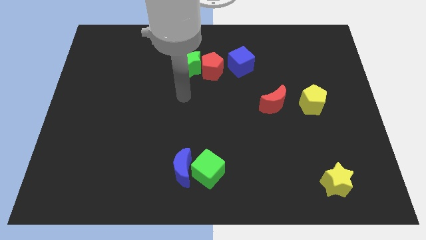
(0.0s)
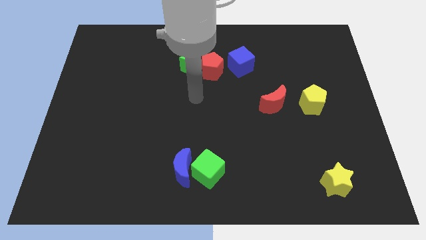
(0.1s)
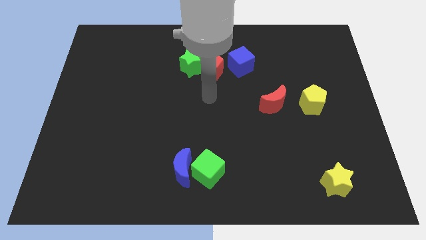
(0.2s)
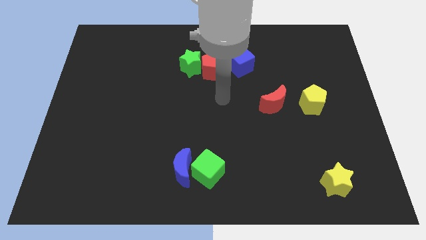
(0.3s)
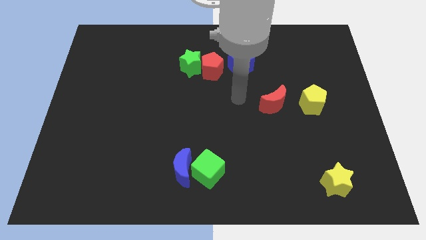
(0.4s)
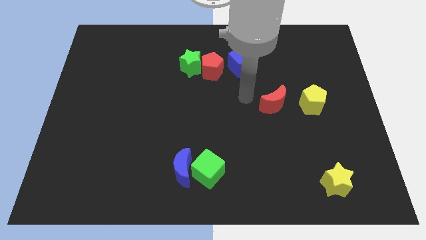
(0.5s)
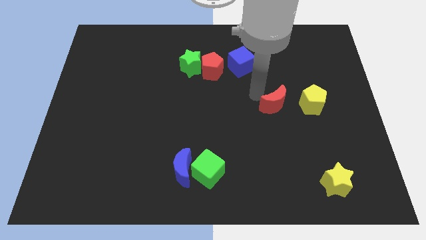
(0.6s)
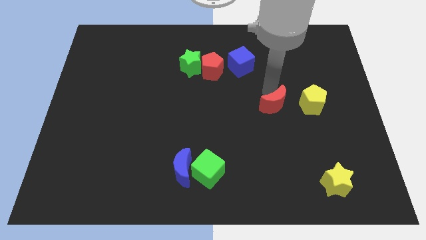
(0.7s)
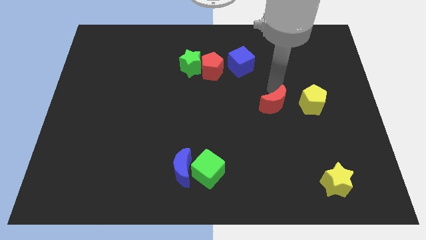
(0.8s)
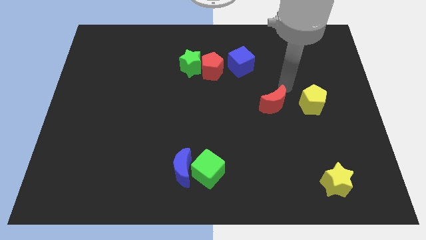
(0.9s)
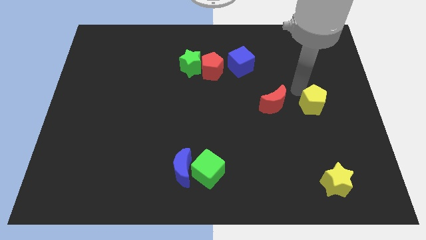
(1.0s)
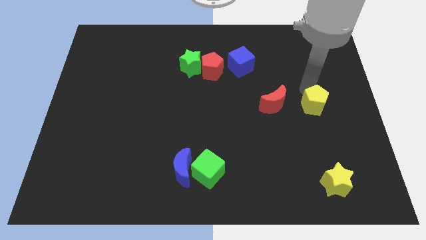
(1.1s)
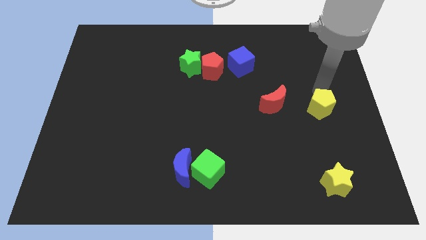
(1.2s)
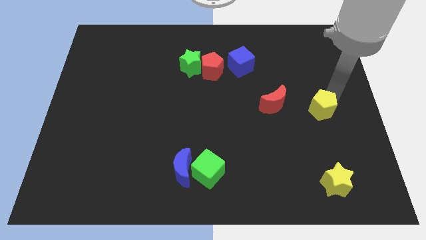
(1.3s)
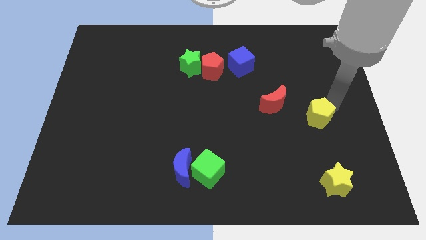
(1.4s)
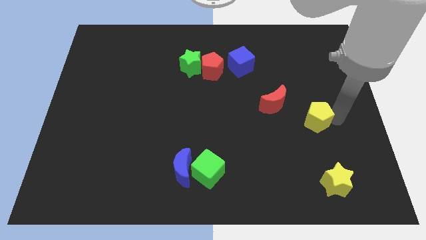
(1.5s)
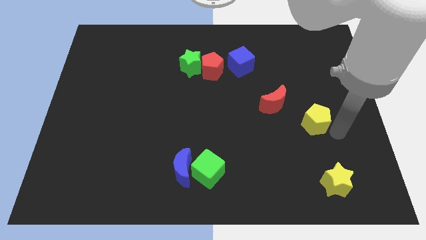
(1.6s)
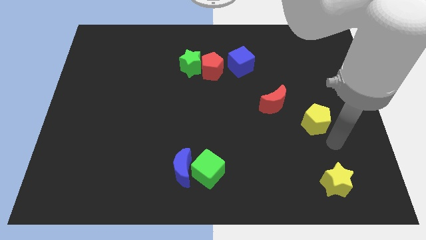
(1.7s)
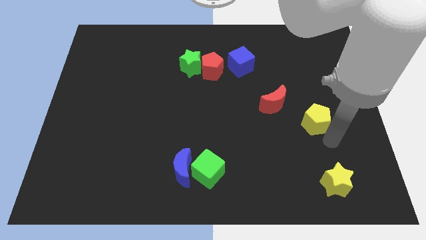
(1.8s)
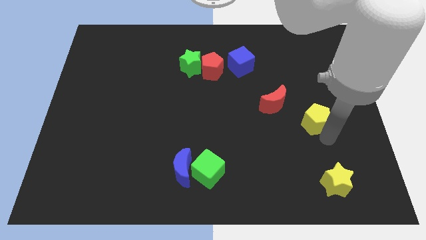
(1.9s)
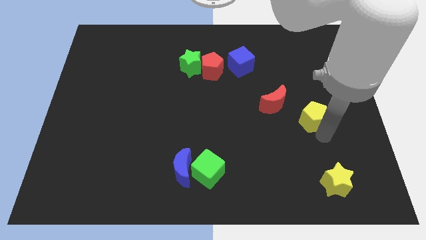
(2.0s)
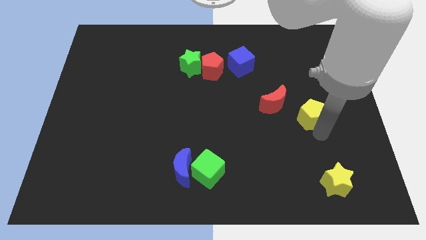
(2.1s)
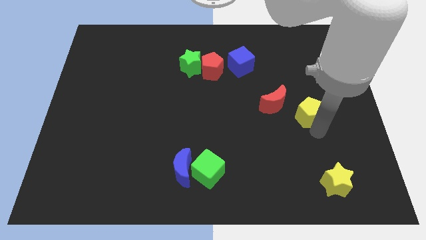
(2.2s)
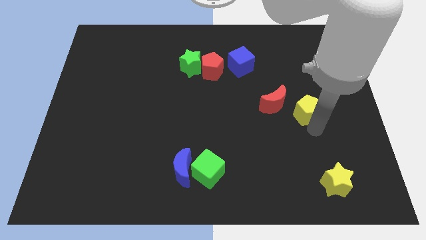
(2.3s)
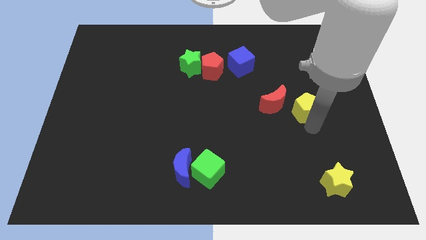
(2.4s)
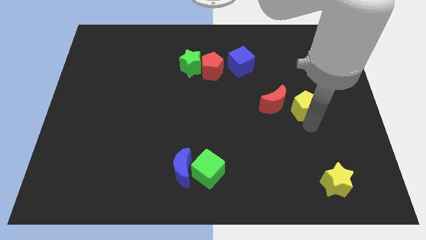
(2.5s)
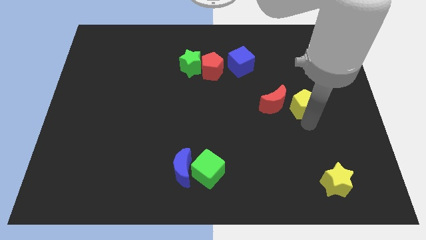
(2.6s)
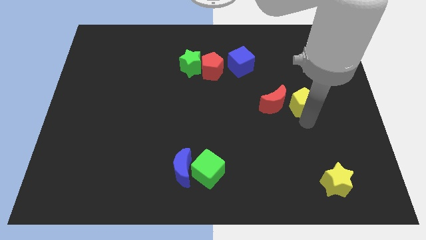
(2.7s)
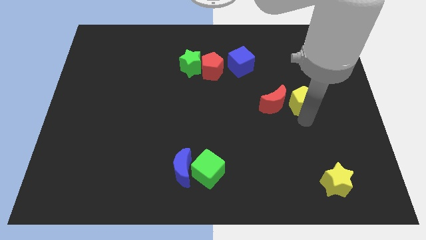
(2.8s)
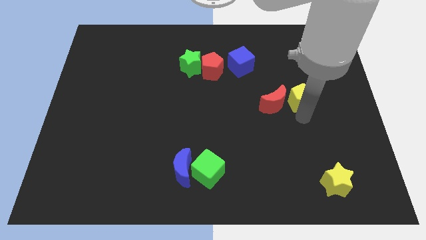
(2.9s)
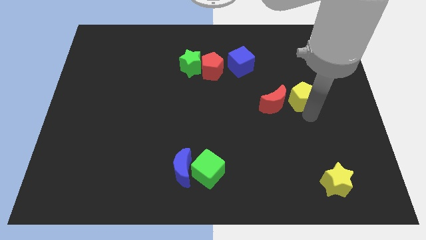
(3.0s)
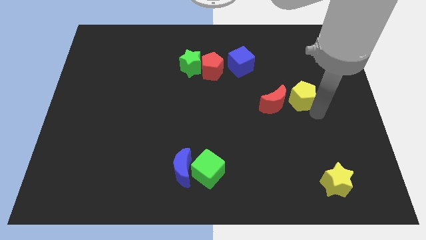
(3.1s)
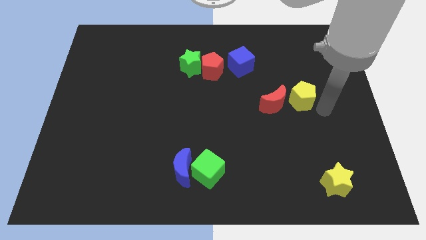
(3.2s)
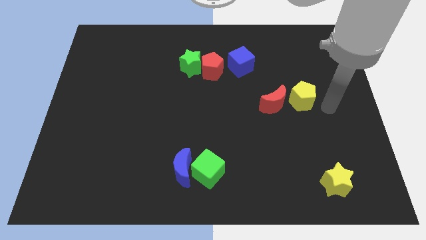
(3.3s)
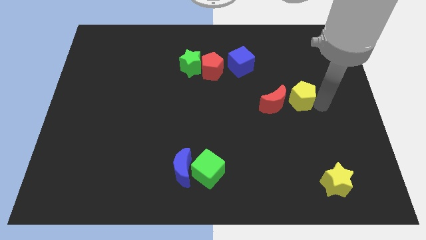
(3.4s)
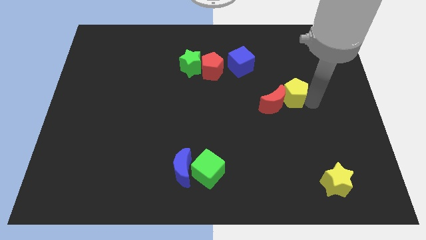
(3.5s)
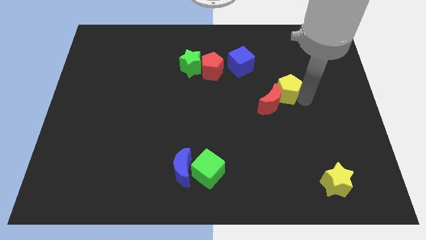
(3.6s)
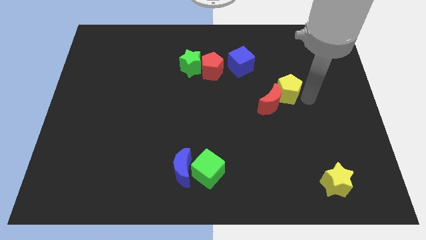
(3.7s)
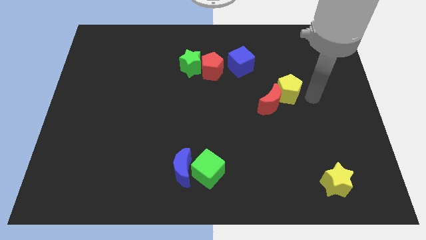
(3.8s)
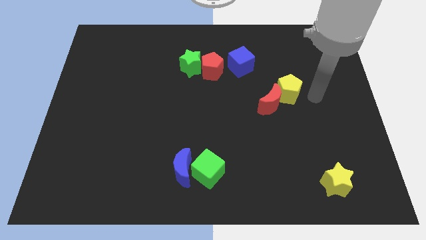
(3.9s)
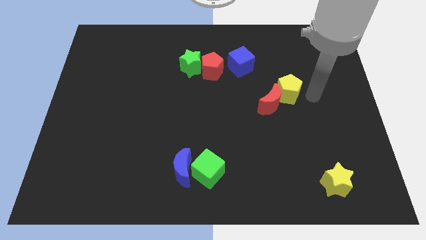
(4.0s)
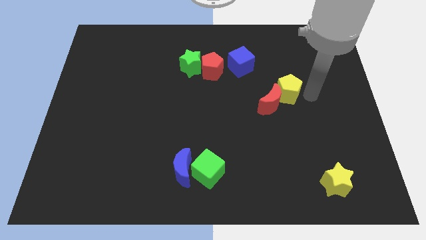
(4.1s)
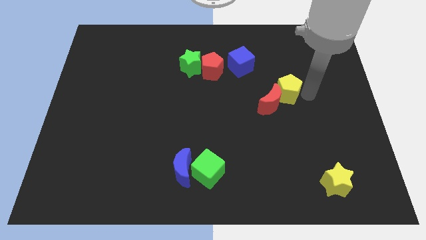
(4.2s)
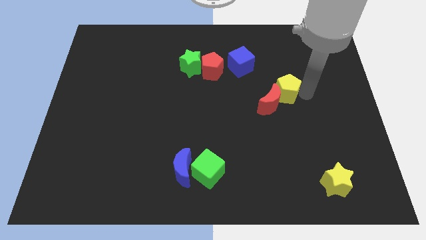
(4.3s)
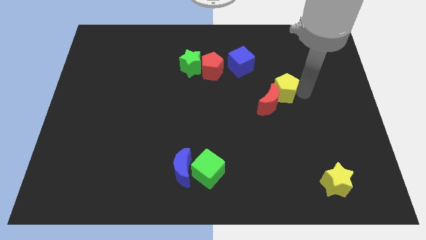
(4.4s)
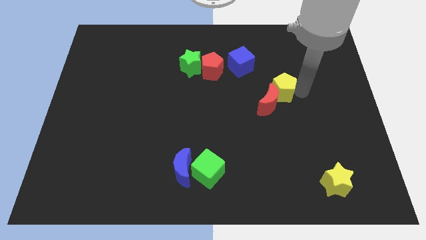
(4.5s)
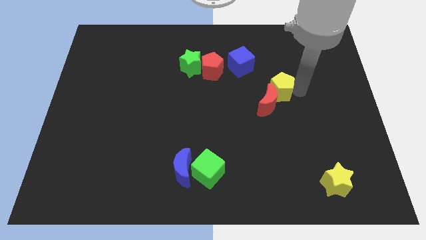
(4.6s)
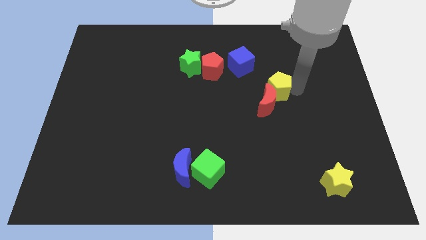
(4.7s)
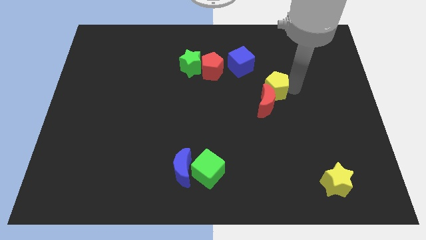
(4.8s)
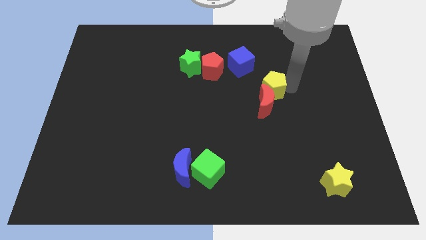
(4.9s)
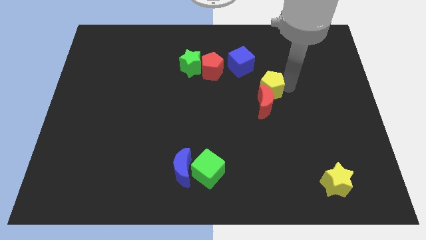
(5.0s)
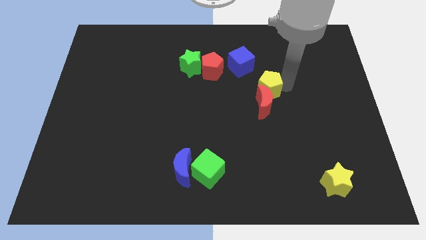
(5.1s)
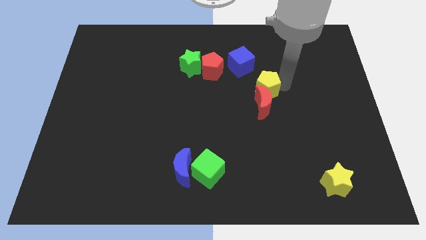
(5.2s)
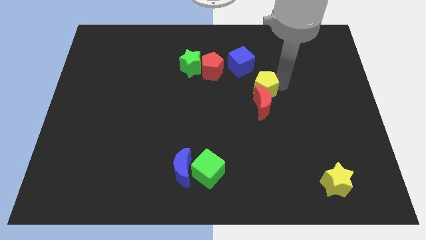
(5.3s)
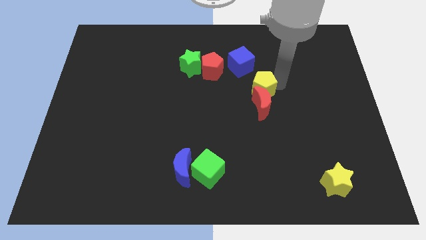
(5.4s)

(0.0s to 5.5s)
push the yellow pentagon to the middle of the board

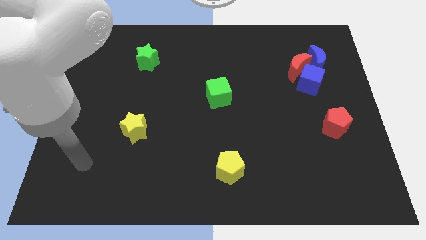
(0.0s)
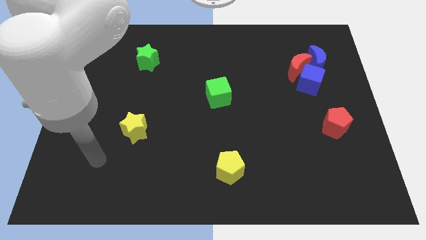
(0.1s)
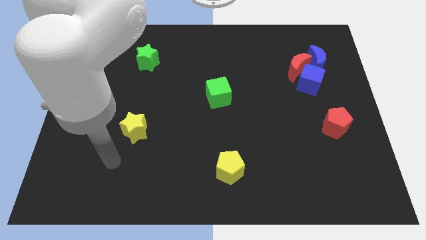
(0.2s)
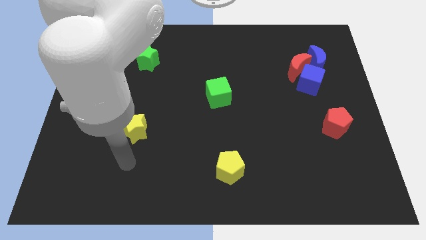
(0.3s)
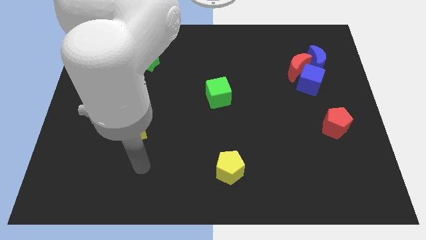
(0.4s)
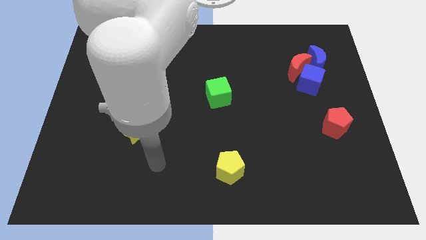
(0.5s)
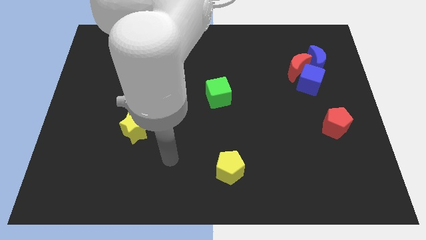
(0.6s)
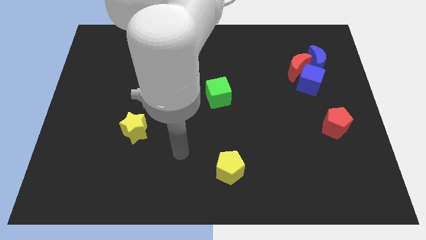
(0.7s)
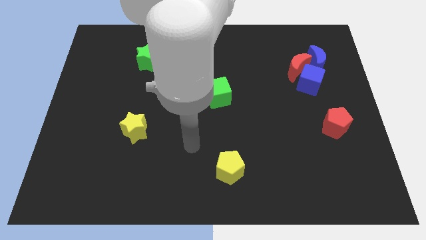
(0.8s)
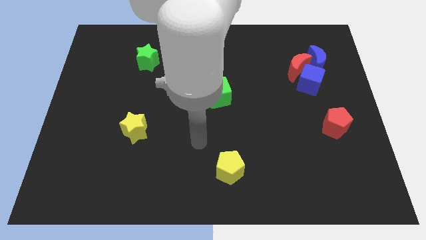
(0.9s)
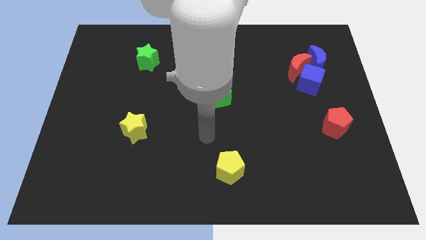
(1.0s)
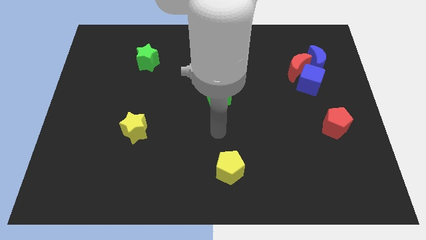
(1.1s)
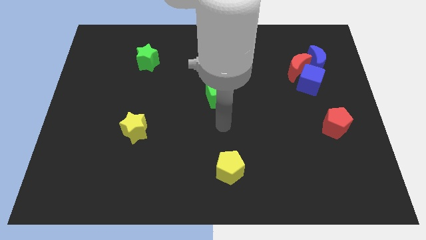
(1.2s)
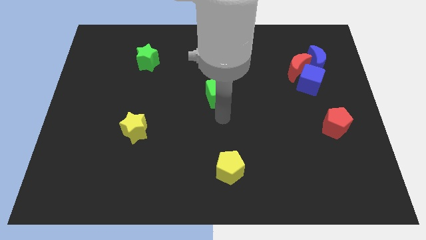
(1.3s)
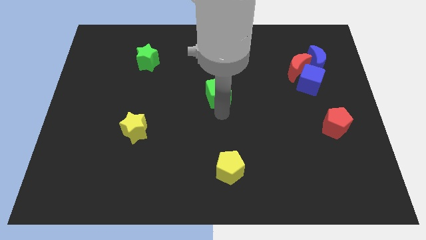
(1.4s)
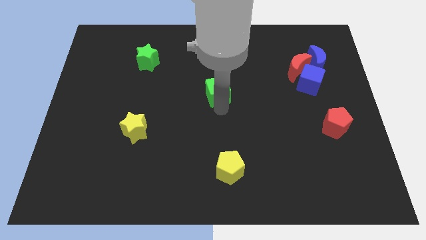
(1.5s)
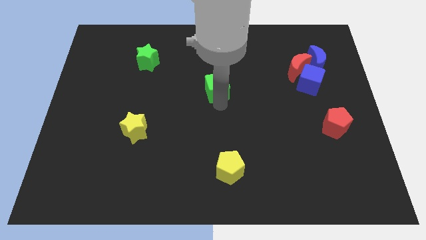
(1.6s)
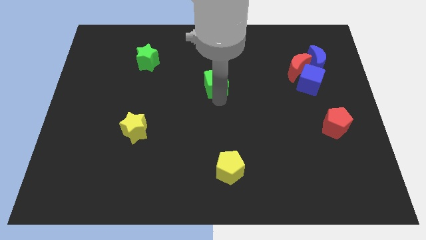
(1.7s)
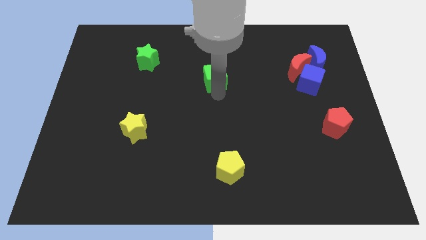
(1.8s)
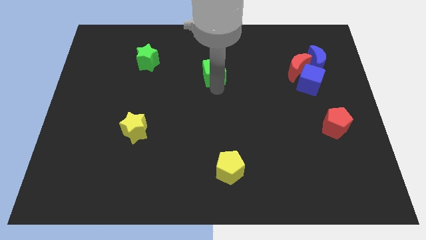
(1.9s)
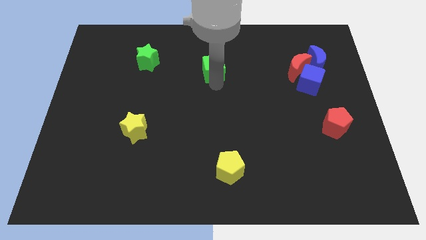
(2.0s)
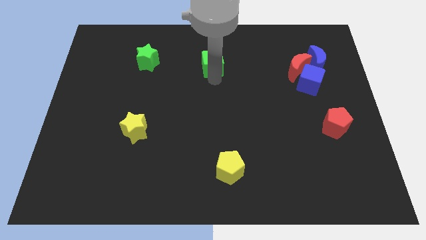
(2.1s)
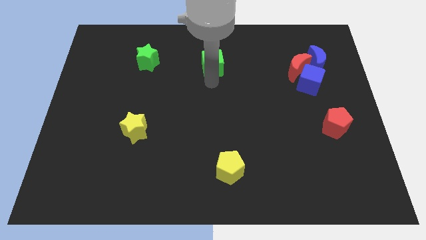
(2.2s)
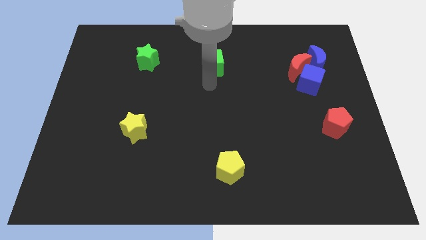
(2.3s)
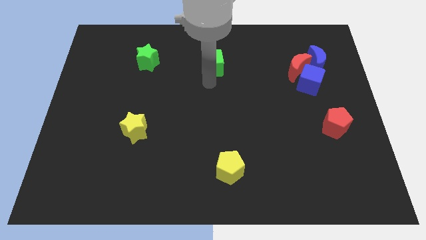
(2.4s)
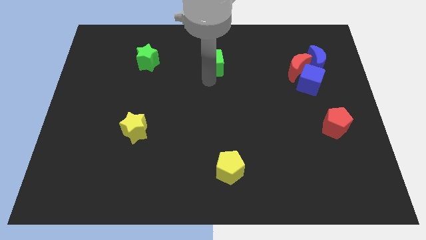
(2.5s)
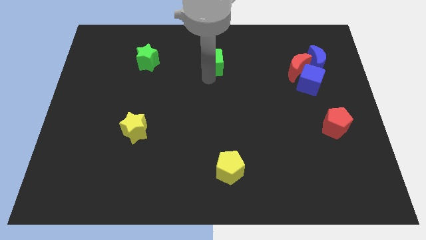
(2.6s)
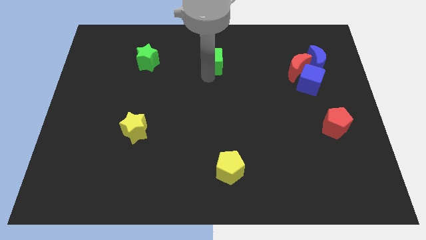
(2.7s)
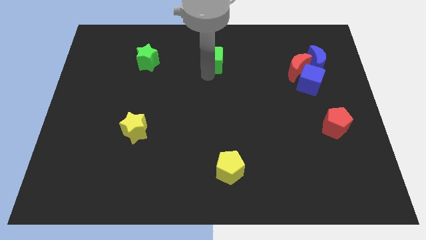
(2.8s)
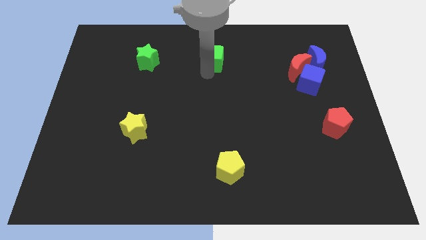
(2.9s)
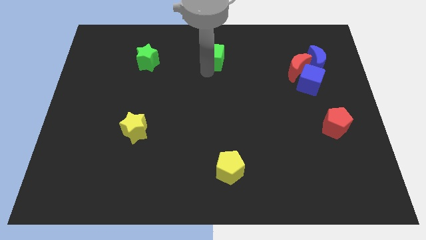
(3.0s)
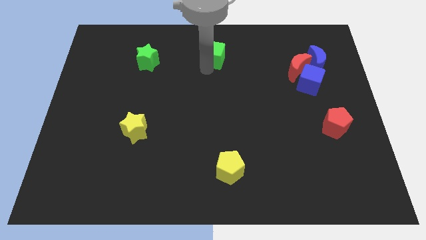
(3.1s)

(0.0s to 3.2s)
slide the green cube to the towards your base
